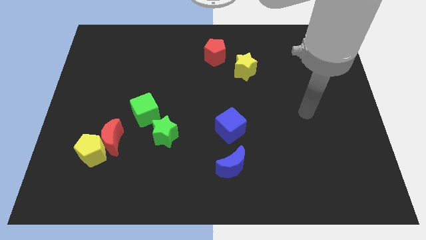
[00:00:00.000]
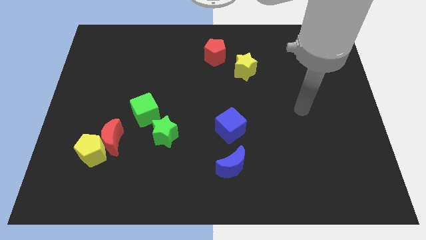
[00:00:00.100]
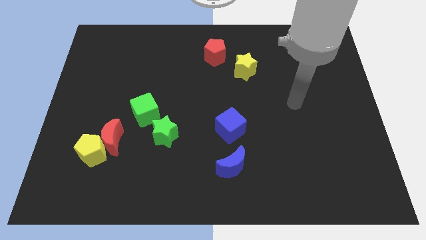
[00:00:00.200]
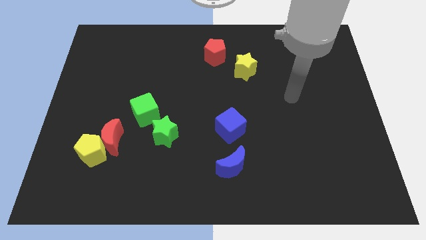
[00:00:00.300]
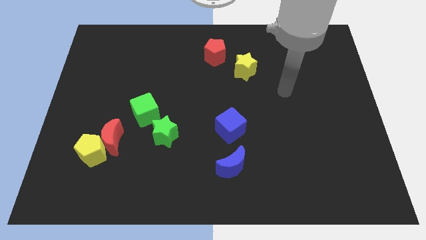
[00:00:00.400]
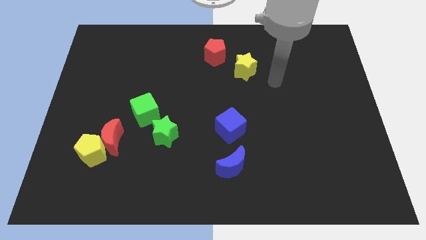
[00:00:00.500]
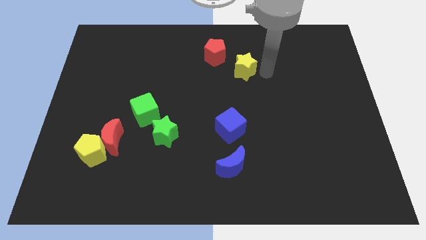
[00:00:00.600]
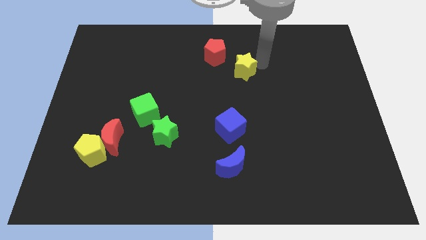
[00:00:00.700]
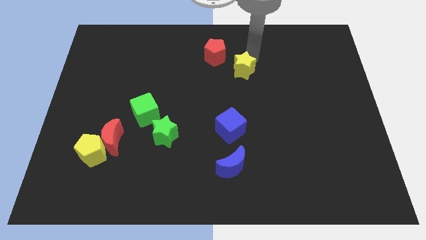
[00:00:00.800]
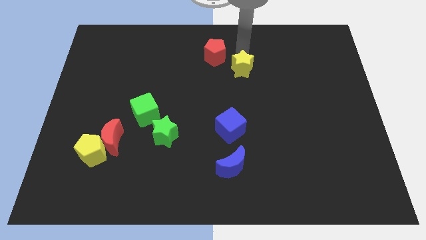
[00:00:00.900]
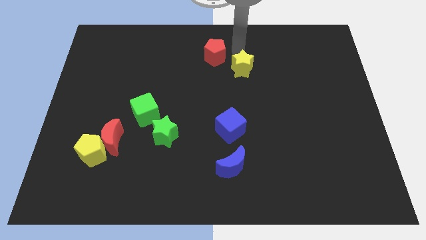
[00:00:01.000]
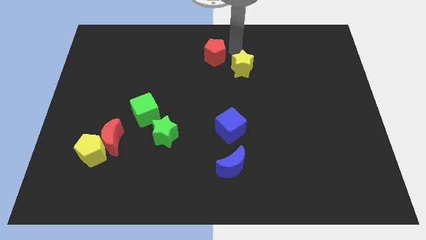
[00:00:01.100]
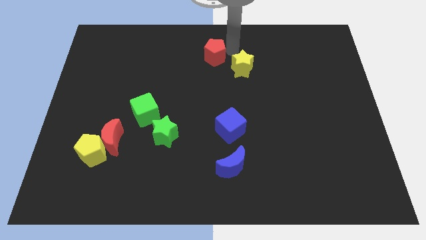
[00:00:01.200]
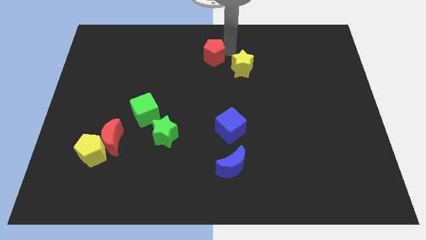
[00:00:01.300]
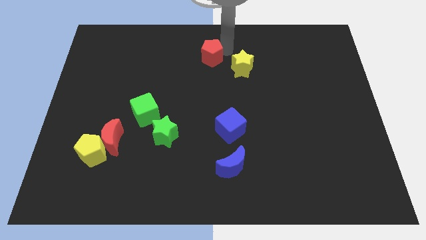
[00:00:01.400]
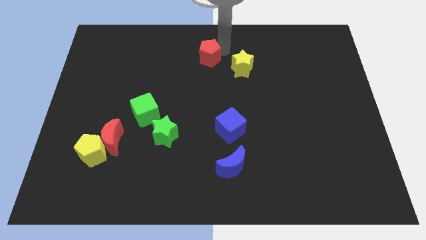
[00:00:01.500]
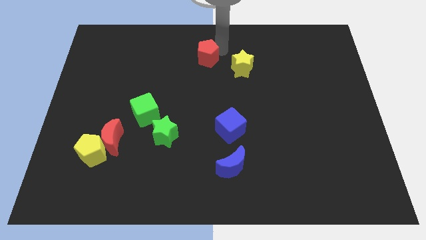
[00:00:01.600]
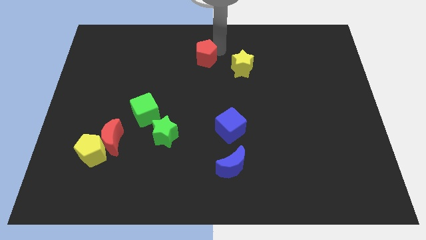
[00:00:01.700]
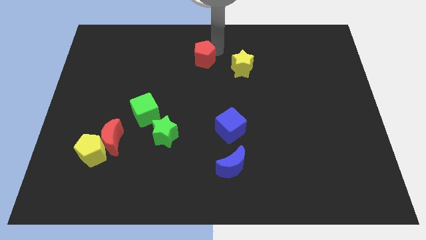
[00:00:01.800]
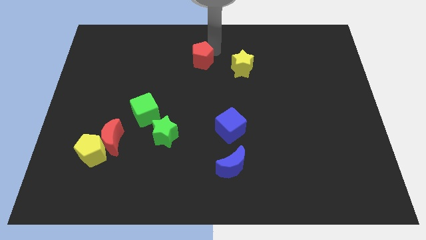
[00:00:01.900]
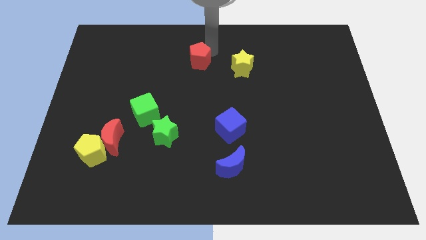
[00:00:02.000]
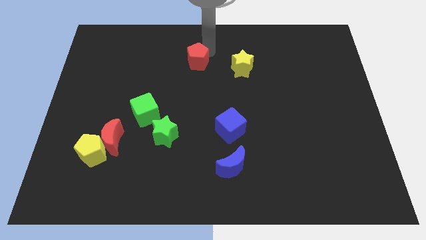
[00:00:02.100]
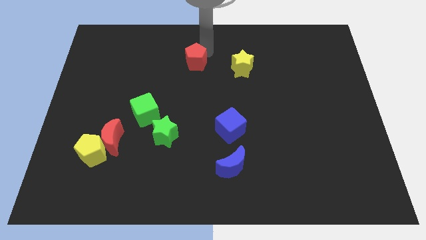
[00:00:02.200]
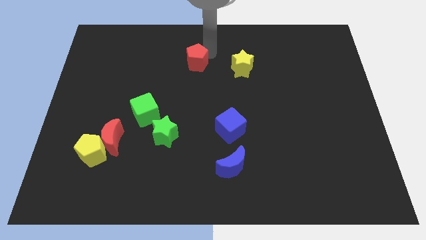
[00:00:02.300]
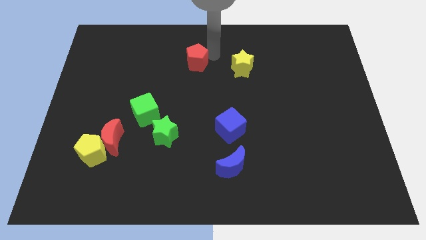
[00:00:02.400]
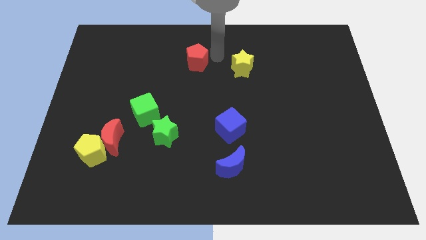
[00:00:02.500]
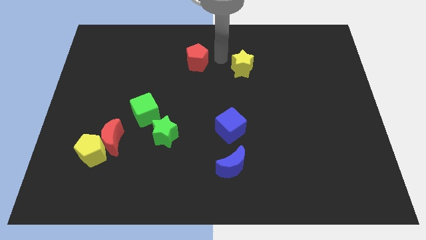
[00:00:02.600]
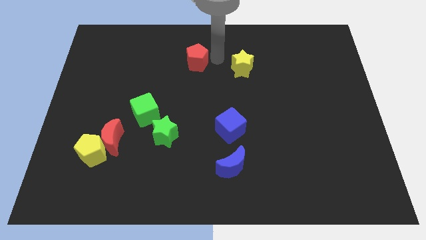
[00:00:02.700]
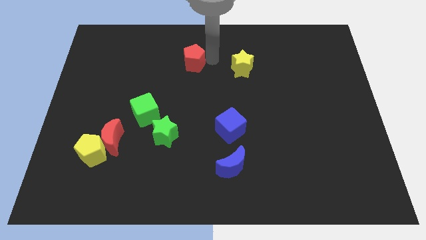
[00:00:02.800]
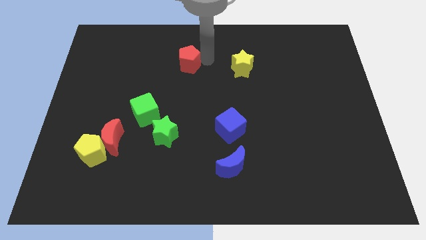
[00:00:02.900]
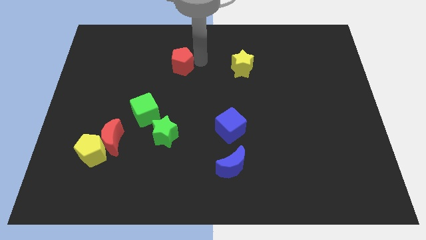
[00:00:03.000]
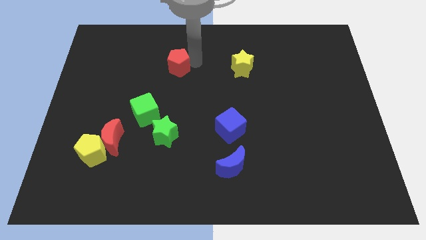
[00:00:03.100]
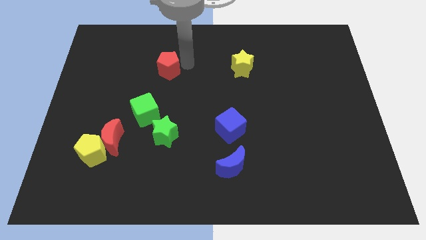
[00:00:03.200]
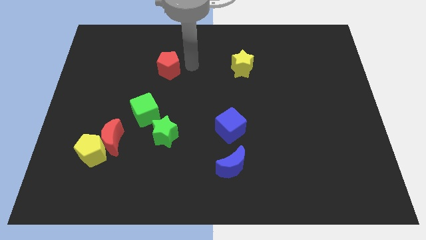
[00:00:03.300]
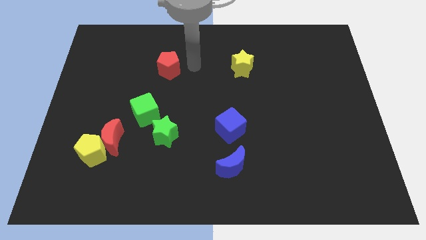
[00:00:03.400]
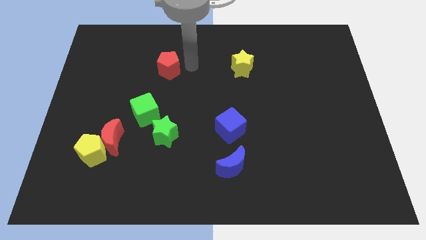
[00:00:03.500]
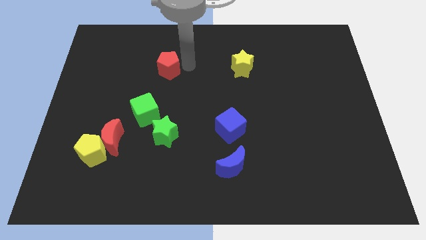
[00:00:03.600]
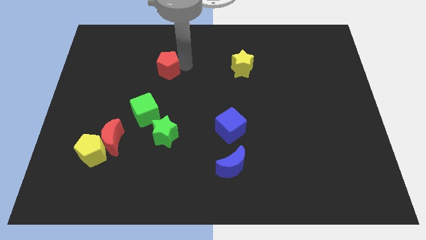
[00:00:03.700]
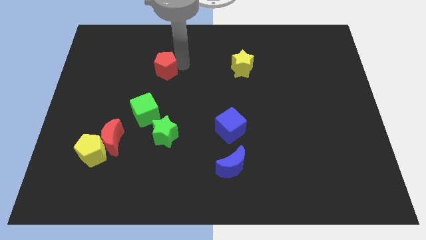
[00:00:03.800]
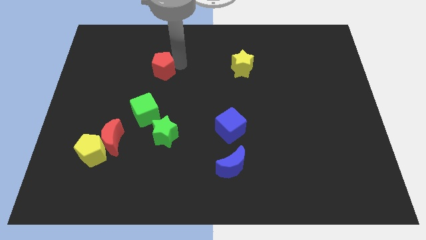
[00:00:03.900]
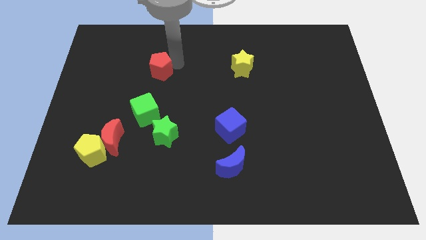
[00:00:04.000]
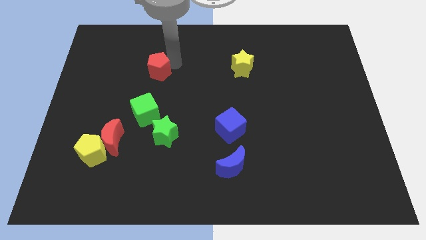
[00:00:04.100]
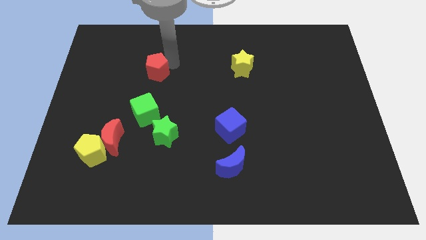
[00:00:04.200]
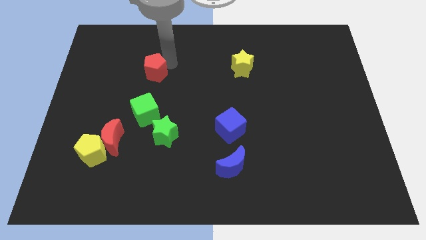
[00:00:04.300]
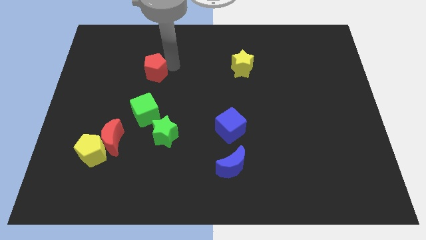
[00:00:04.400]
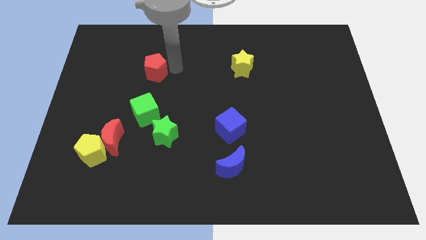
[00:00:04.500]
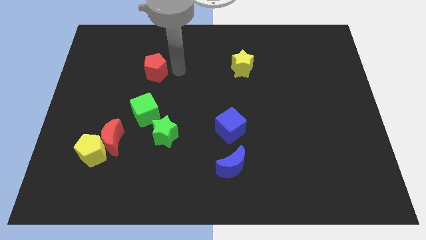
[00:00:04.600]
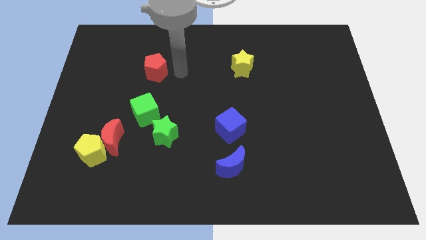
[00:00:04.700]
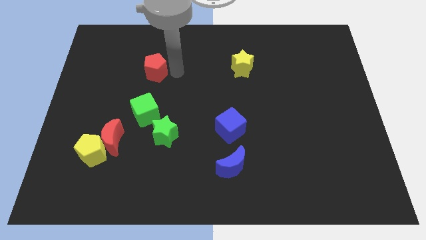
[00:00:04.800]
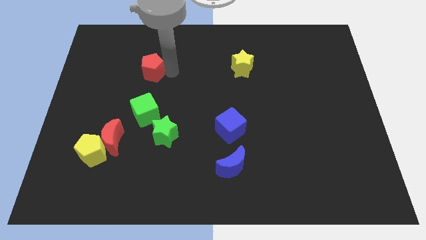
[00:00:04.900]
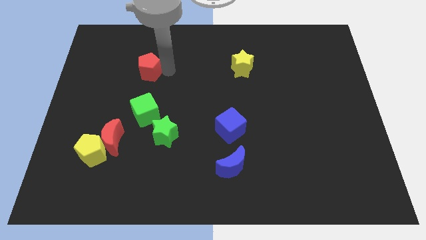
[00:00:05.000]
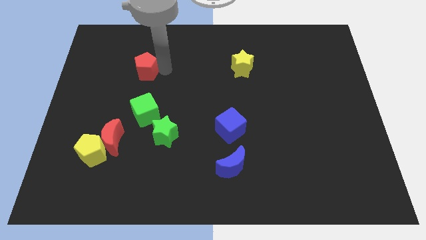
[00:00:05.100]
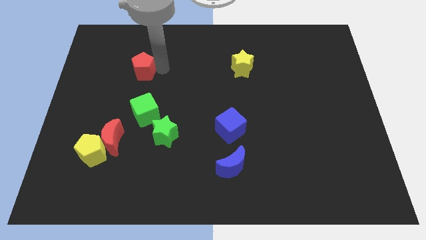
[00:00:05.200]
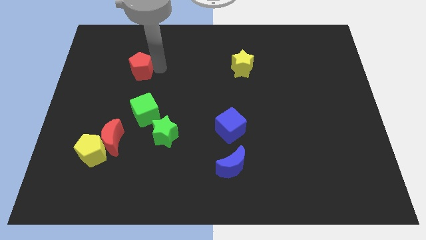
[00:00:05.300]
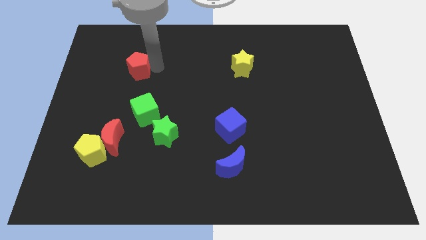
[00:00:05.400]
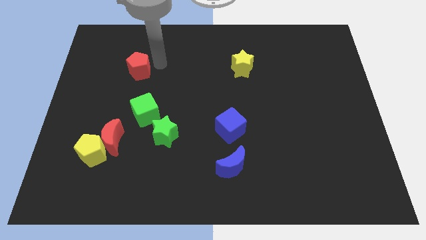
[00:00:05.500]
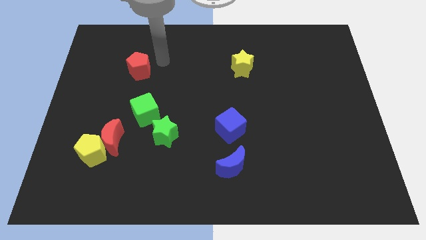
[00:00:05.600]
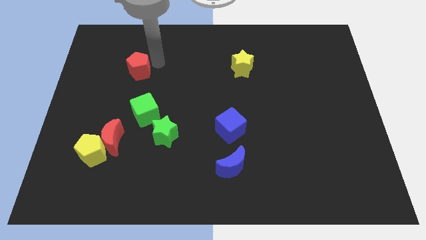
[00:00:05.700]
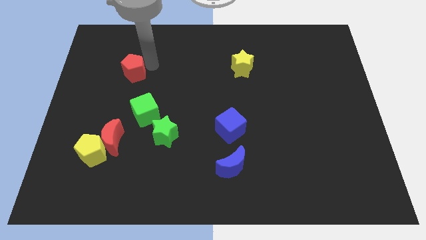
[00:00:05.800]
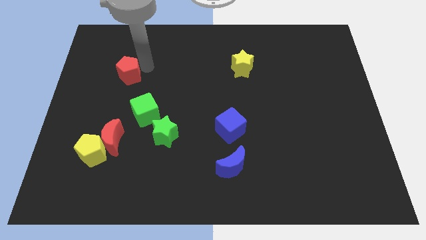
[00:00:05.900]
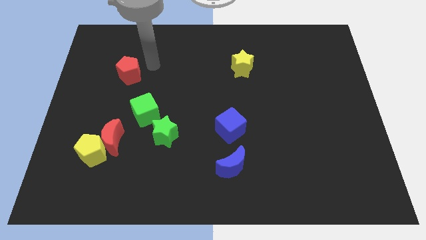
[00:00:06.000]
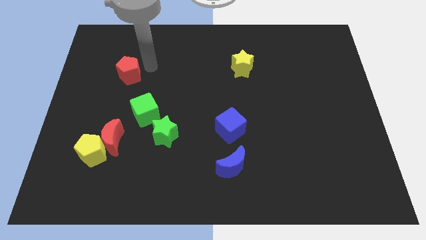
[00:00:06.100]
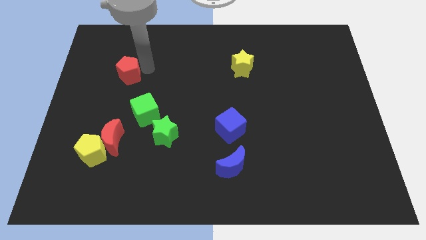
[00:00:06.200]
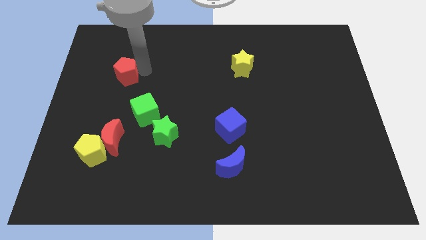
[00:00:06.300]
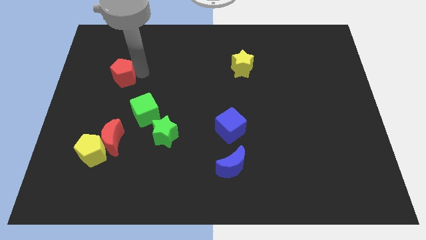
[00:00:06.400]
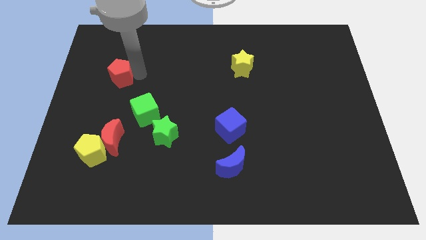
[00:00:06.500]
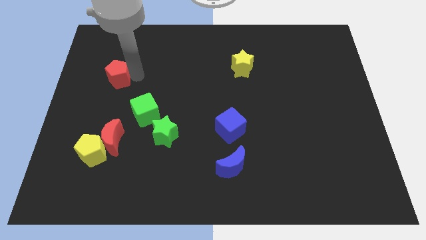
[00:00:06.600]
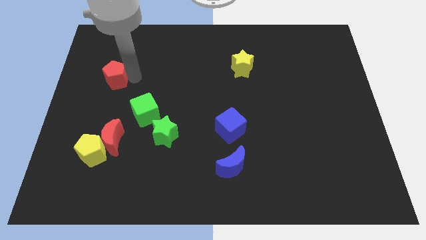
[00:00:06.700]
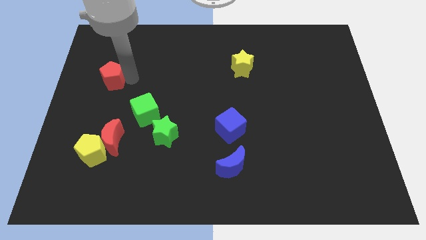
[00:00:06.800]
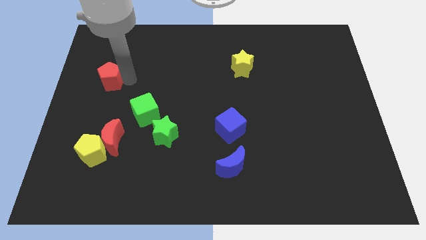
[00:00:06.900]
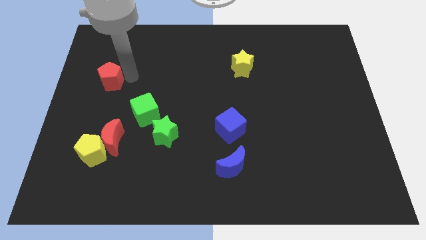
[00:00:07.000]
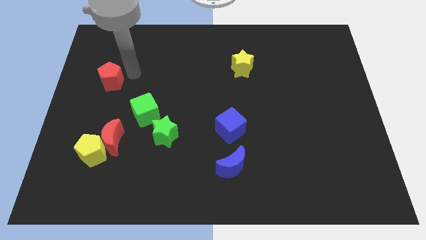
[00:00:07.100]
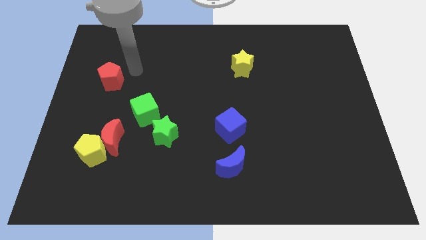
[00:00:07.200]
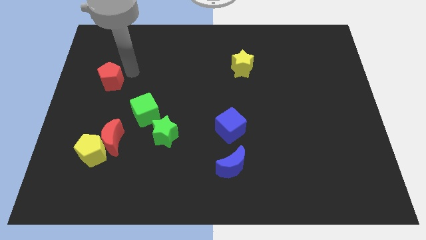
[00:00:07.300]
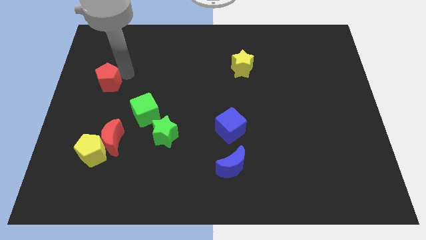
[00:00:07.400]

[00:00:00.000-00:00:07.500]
put the red pentagon to the center left
